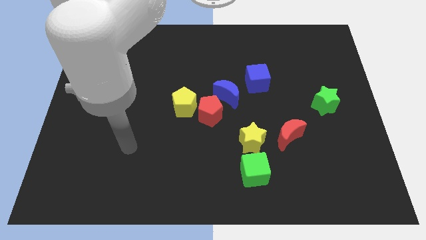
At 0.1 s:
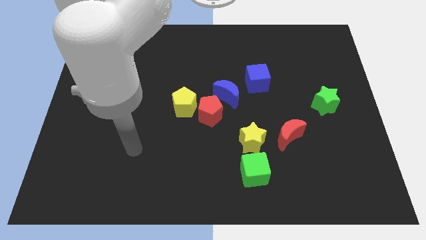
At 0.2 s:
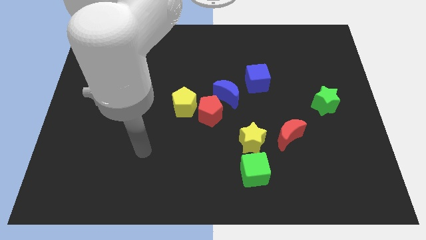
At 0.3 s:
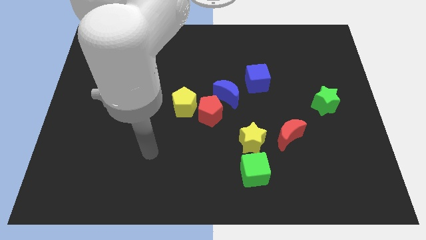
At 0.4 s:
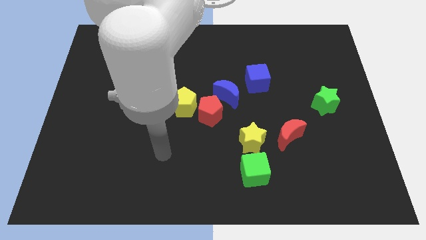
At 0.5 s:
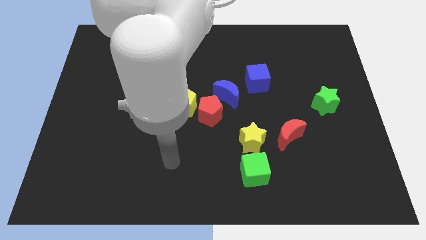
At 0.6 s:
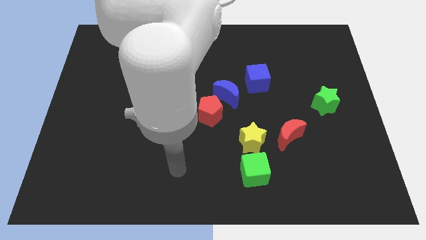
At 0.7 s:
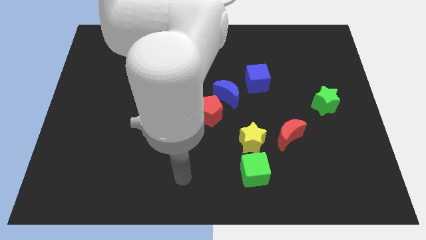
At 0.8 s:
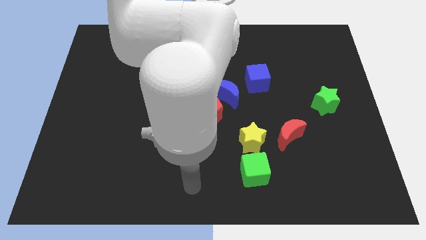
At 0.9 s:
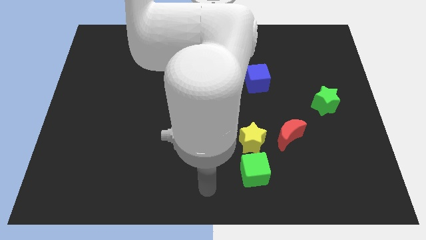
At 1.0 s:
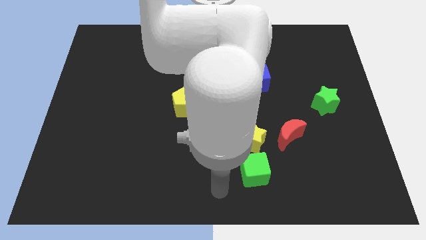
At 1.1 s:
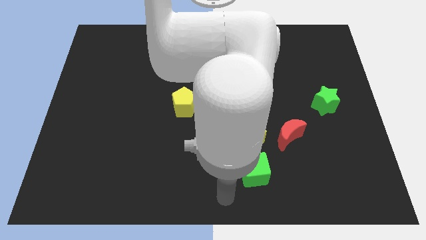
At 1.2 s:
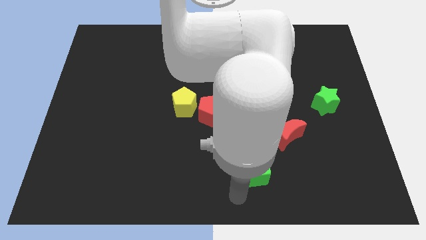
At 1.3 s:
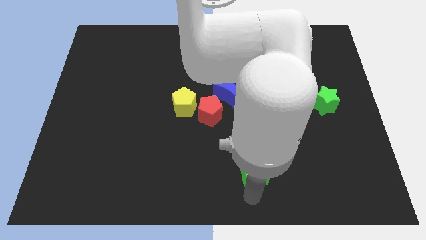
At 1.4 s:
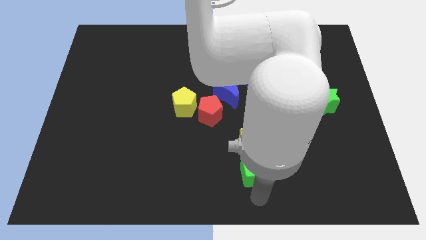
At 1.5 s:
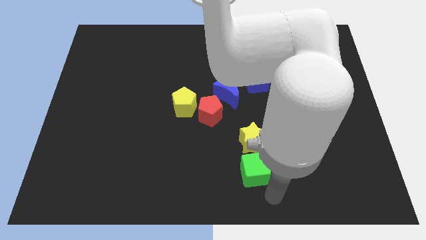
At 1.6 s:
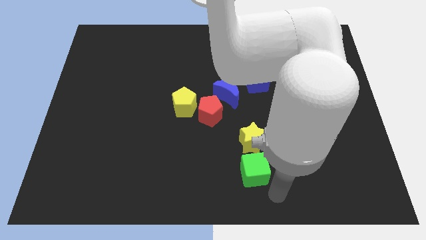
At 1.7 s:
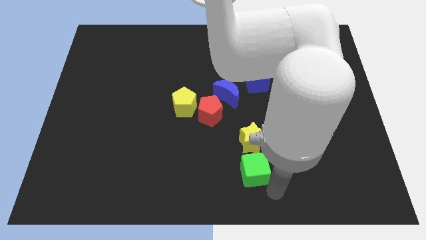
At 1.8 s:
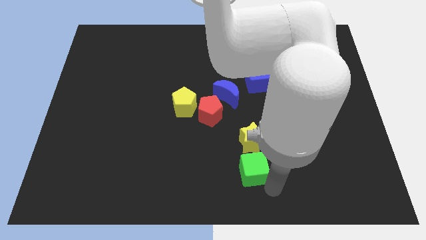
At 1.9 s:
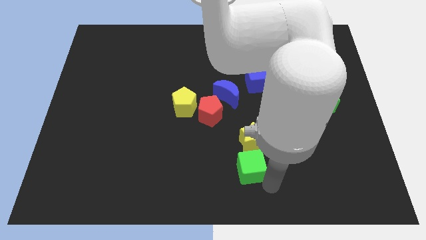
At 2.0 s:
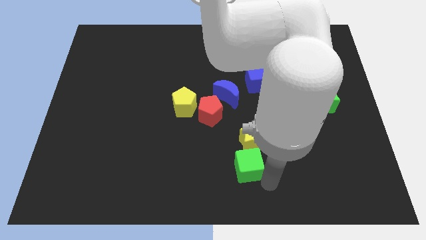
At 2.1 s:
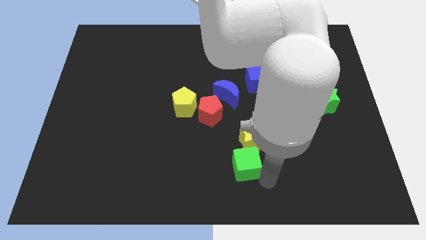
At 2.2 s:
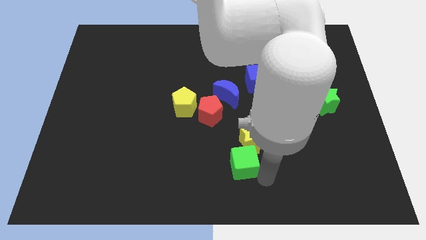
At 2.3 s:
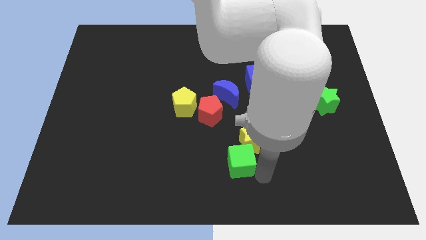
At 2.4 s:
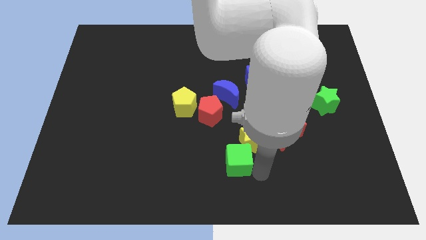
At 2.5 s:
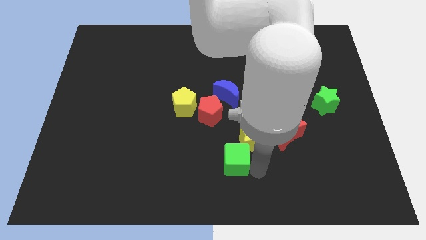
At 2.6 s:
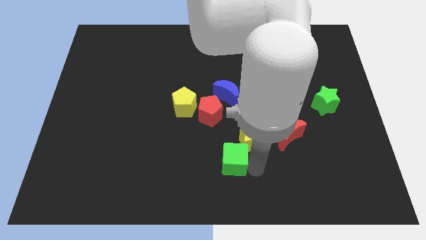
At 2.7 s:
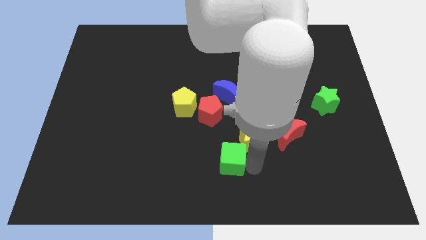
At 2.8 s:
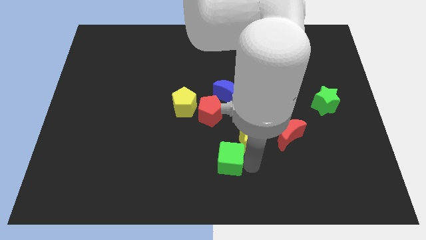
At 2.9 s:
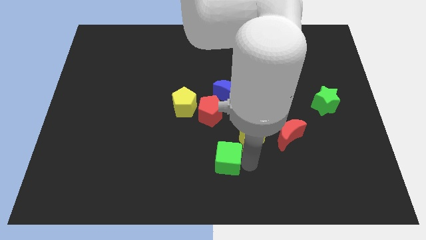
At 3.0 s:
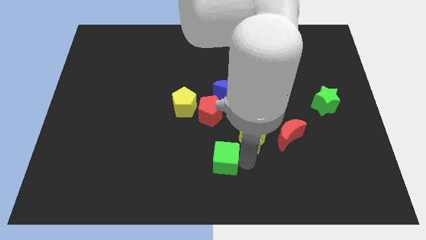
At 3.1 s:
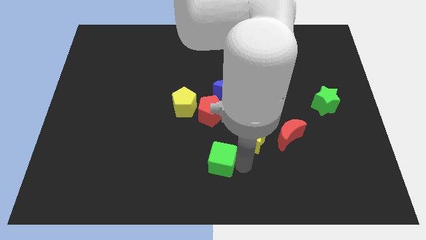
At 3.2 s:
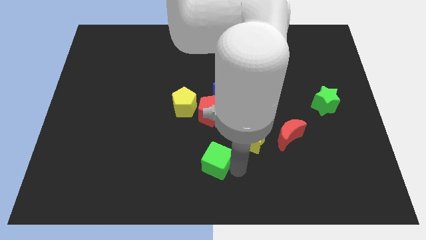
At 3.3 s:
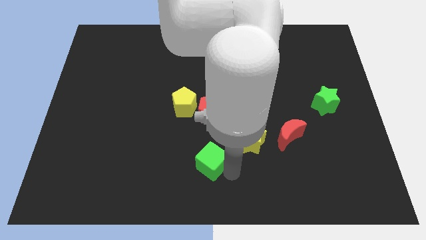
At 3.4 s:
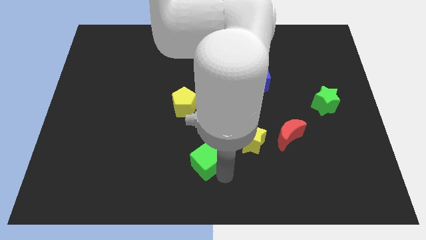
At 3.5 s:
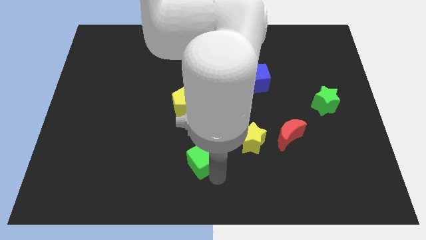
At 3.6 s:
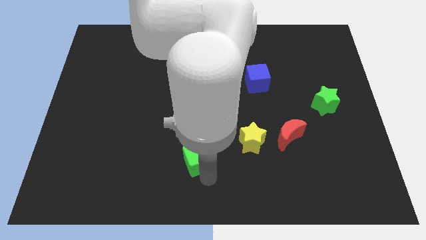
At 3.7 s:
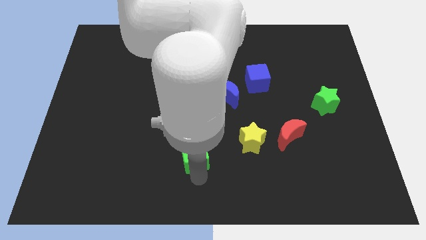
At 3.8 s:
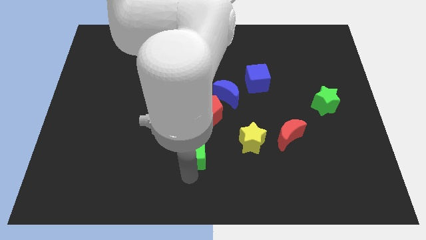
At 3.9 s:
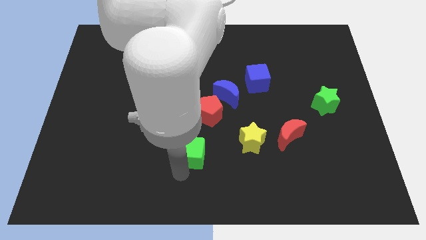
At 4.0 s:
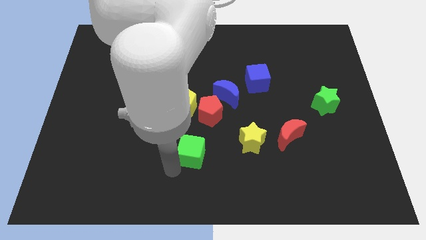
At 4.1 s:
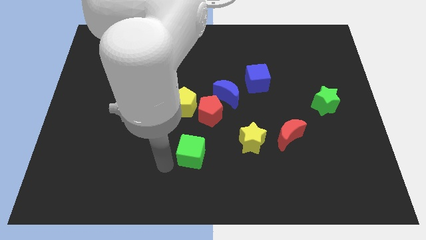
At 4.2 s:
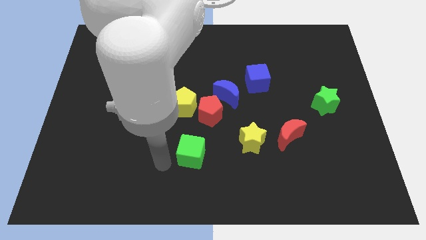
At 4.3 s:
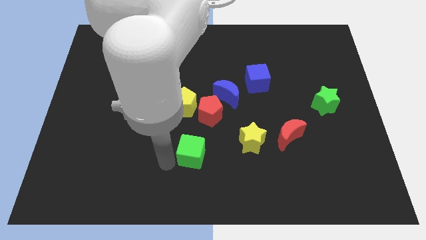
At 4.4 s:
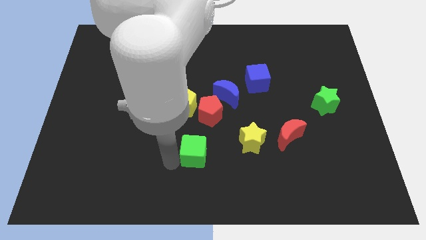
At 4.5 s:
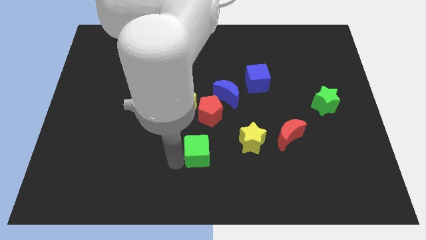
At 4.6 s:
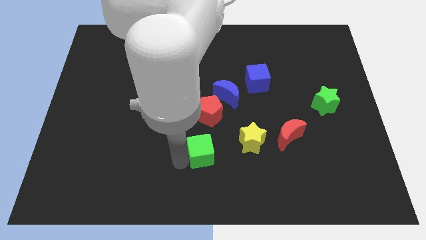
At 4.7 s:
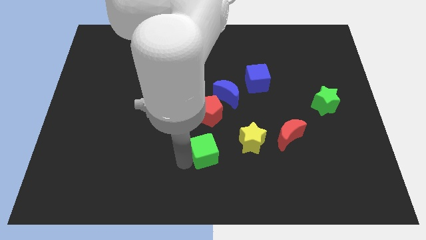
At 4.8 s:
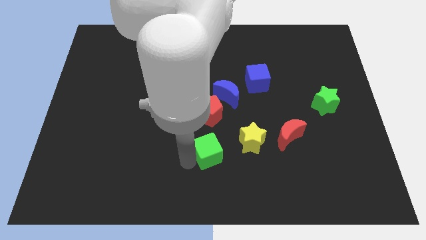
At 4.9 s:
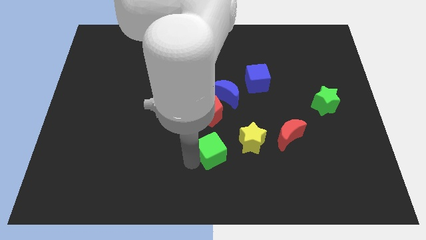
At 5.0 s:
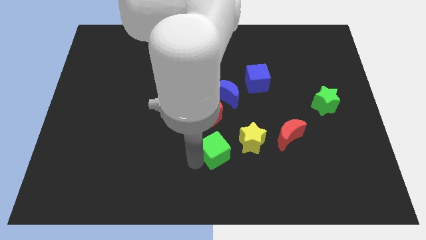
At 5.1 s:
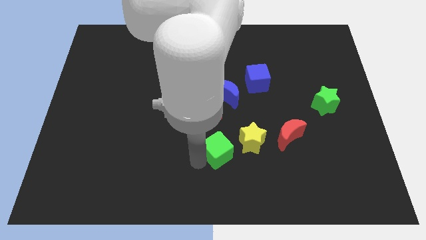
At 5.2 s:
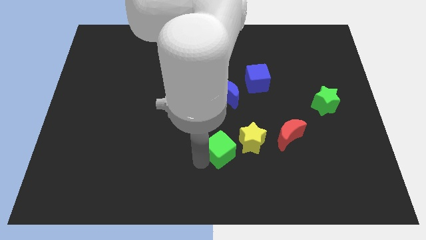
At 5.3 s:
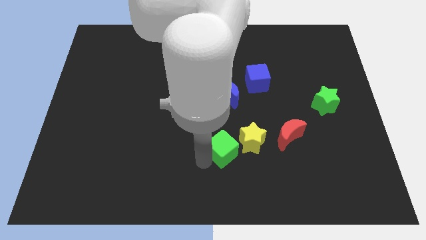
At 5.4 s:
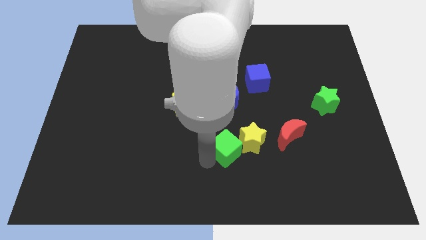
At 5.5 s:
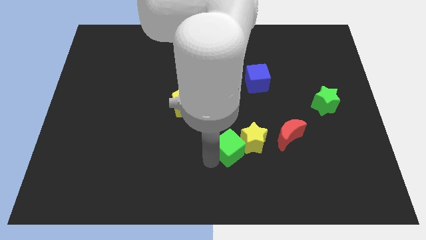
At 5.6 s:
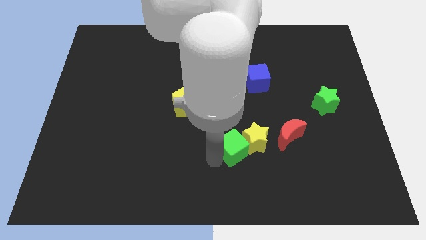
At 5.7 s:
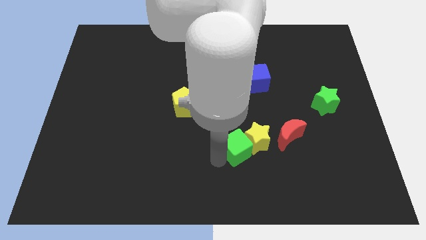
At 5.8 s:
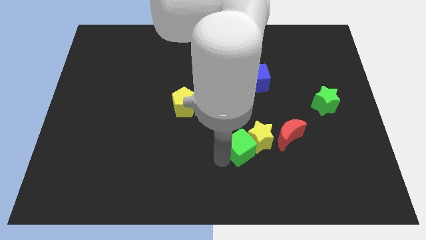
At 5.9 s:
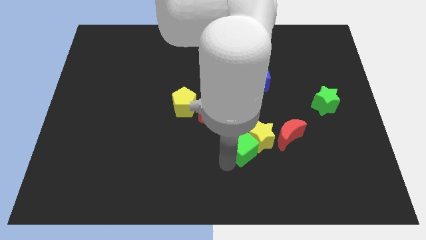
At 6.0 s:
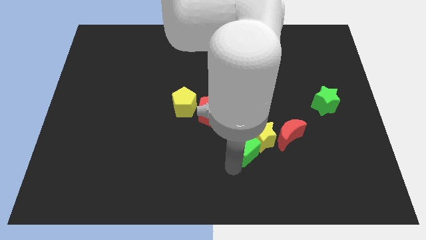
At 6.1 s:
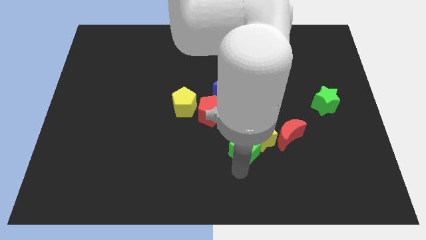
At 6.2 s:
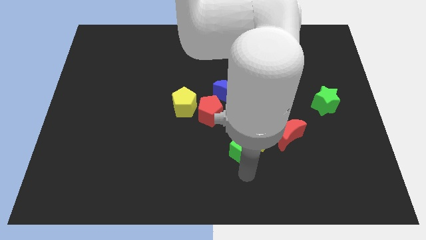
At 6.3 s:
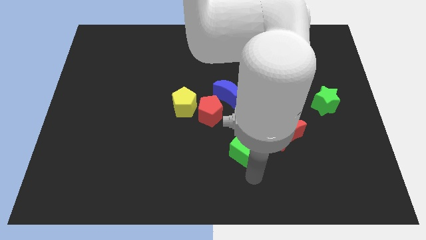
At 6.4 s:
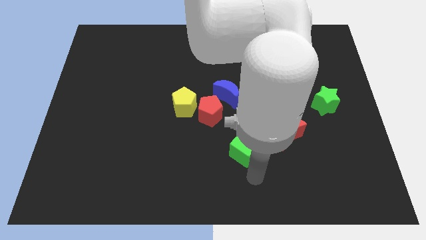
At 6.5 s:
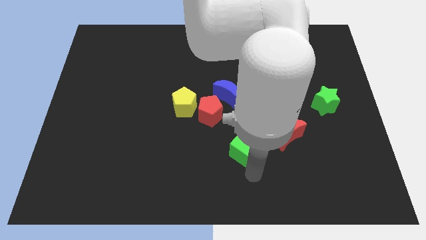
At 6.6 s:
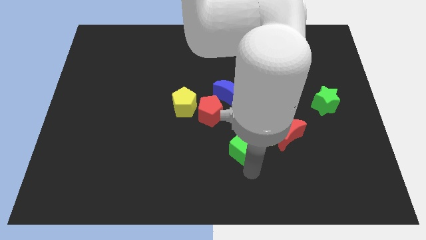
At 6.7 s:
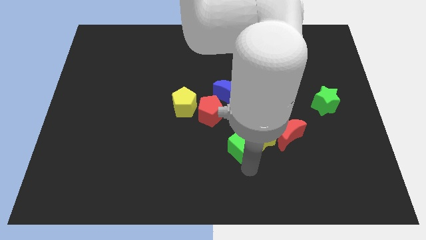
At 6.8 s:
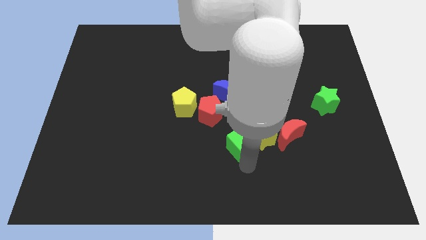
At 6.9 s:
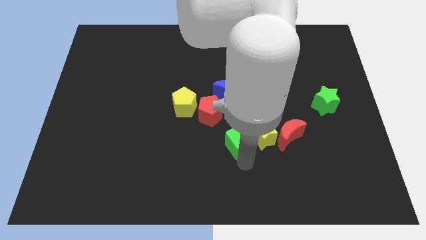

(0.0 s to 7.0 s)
slightly move the green cube up

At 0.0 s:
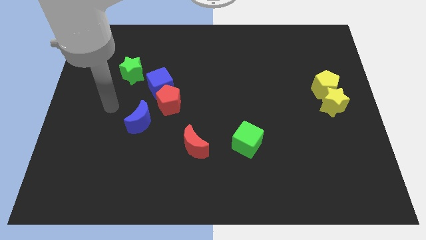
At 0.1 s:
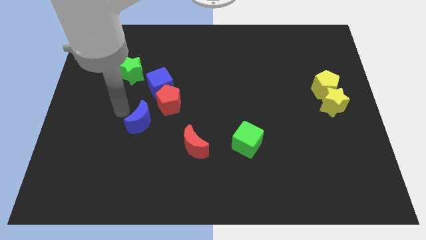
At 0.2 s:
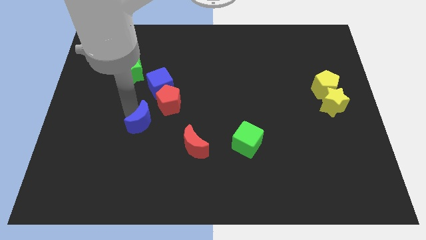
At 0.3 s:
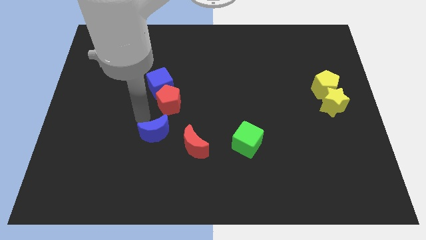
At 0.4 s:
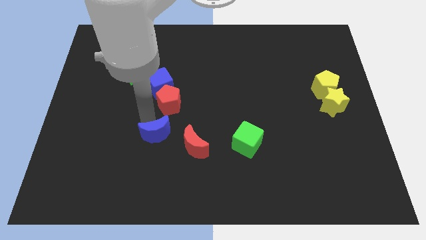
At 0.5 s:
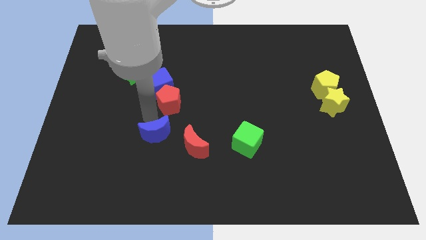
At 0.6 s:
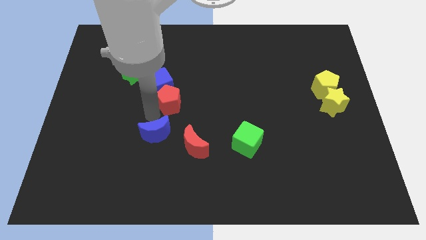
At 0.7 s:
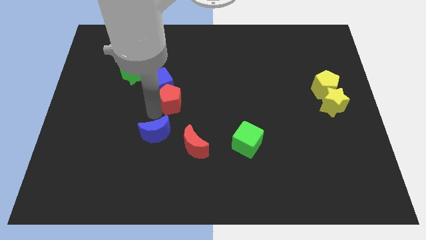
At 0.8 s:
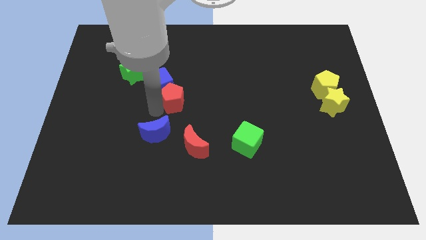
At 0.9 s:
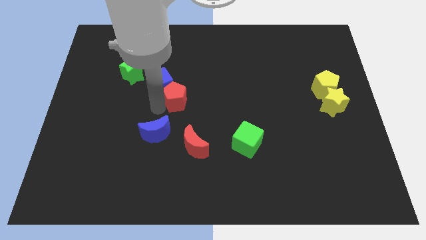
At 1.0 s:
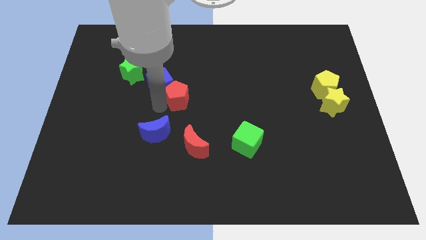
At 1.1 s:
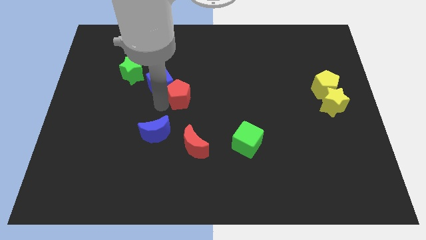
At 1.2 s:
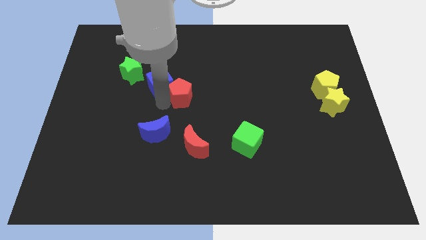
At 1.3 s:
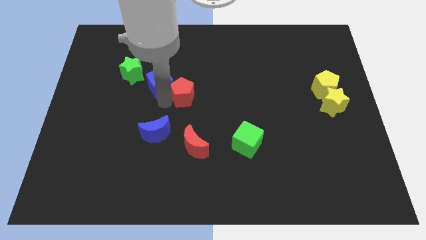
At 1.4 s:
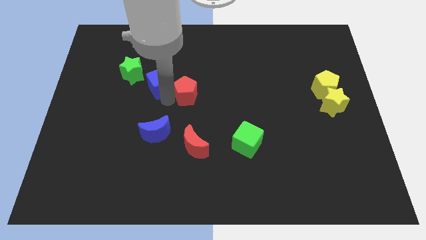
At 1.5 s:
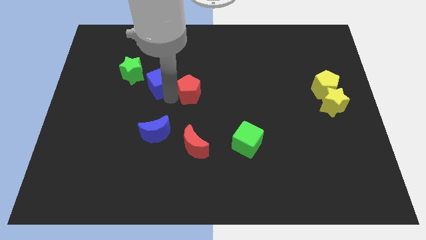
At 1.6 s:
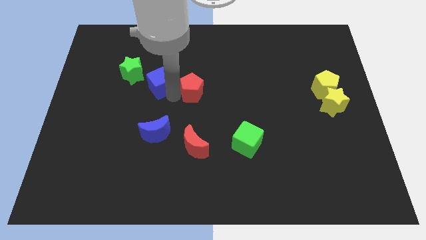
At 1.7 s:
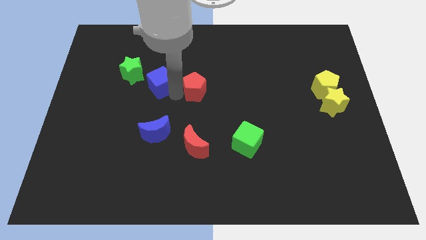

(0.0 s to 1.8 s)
move the red pentagon somewhat diagonally up and to the right
